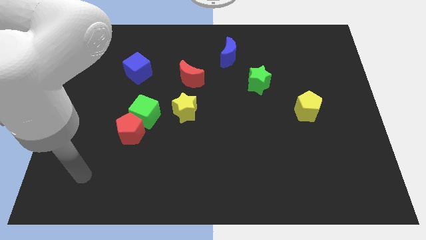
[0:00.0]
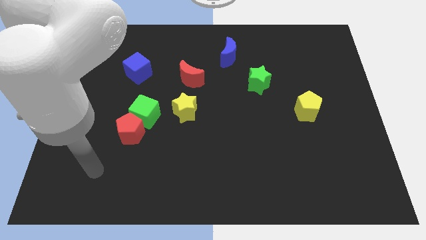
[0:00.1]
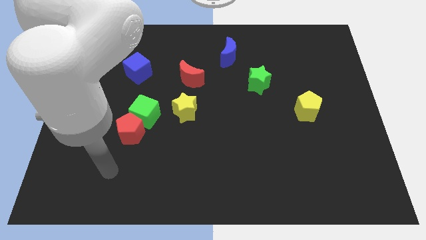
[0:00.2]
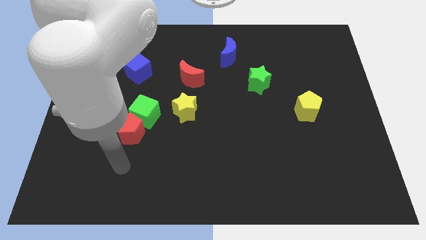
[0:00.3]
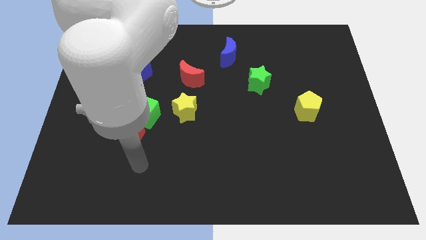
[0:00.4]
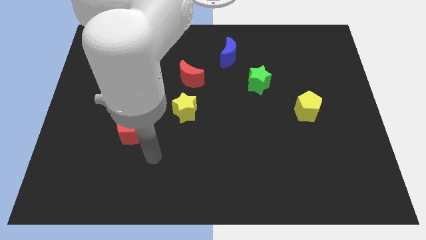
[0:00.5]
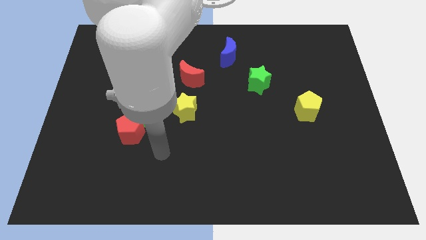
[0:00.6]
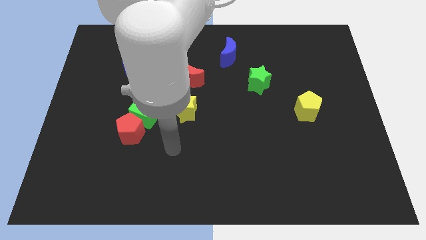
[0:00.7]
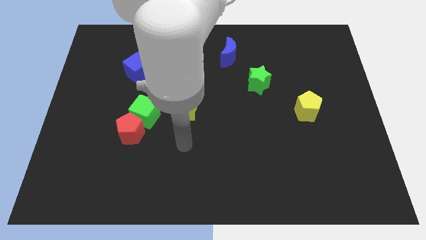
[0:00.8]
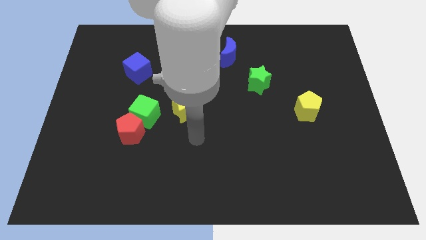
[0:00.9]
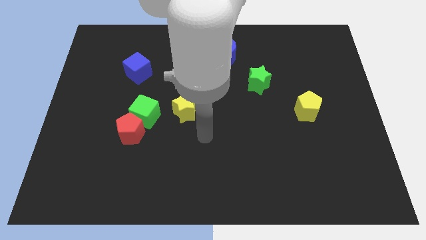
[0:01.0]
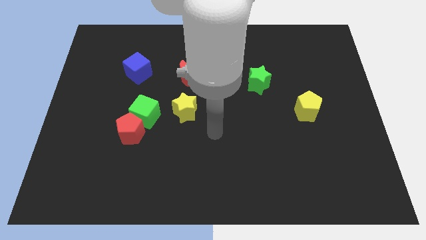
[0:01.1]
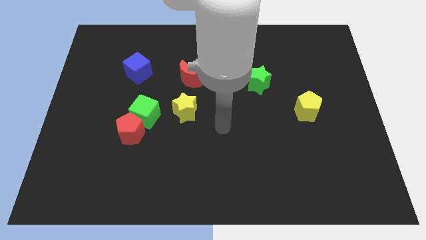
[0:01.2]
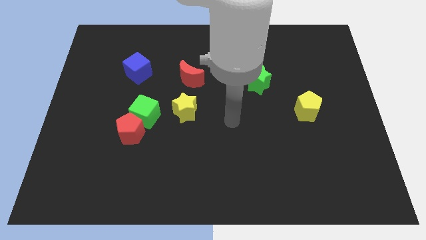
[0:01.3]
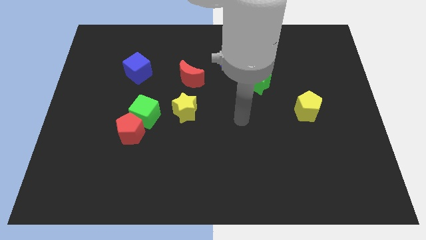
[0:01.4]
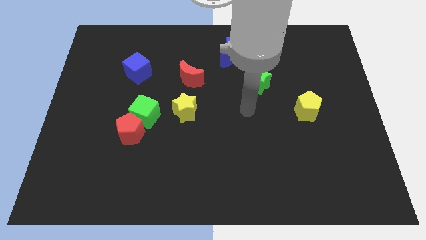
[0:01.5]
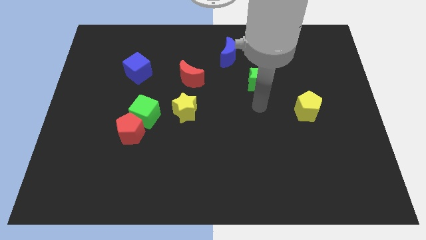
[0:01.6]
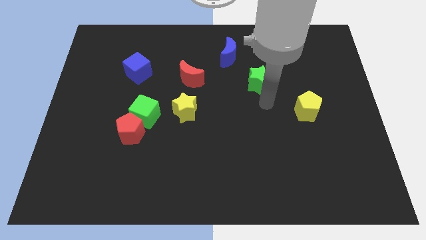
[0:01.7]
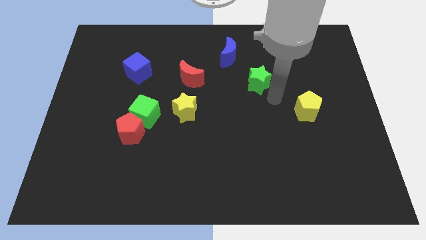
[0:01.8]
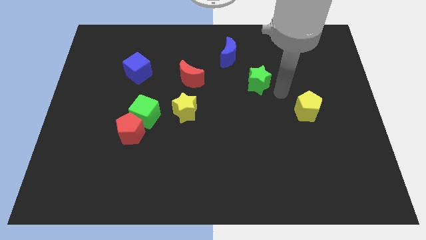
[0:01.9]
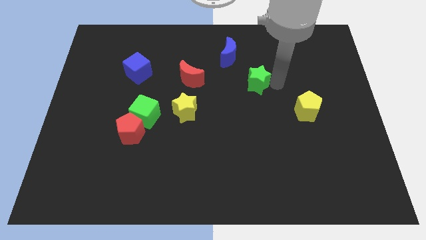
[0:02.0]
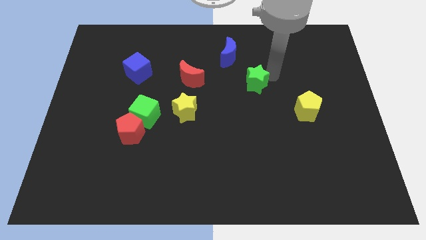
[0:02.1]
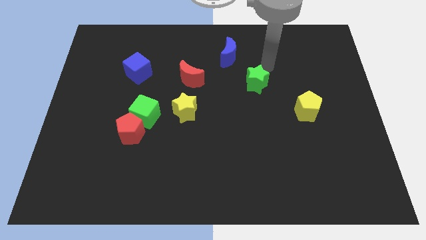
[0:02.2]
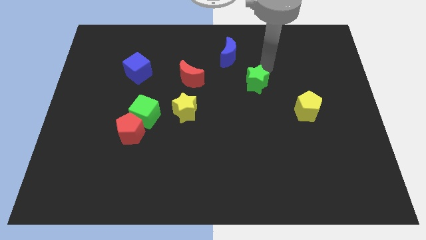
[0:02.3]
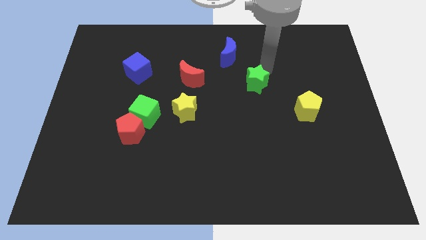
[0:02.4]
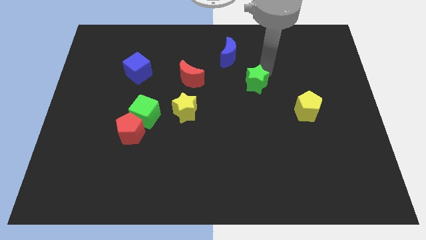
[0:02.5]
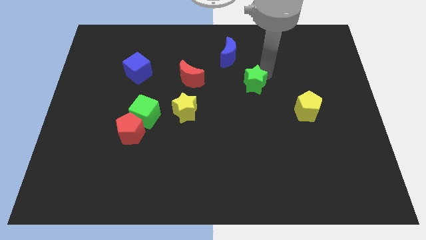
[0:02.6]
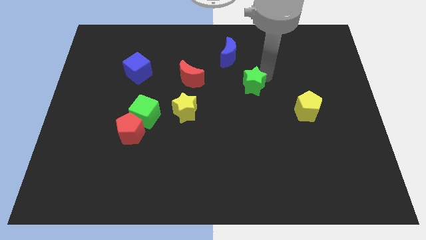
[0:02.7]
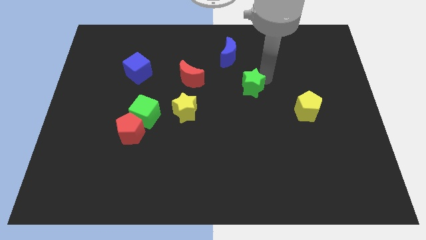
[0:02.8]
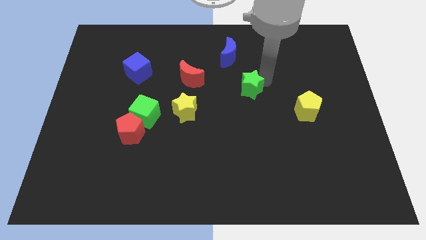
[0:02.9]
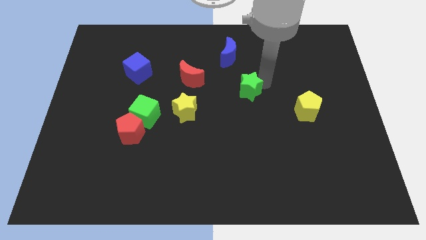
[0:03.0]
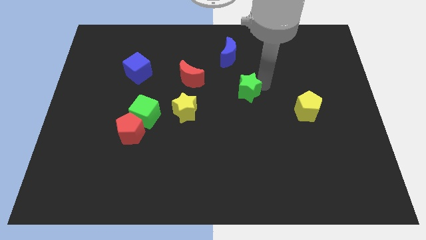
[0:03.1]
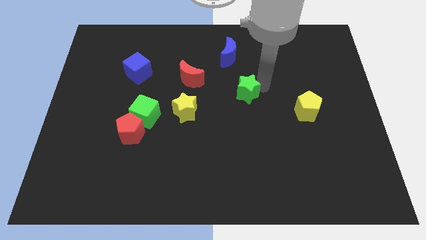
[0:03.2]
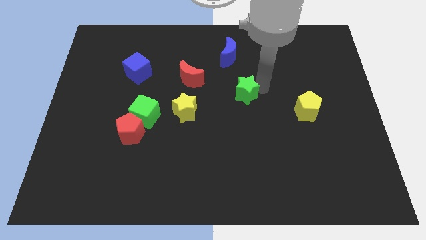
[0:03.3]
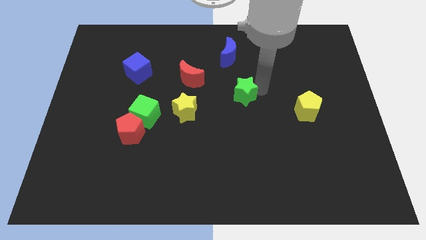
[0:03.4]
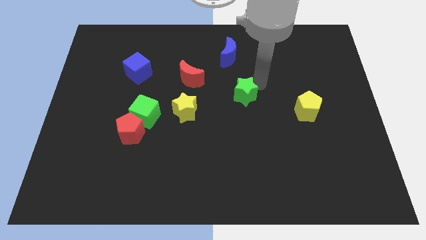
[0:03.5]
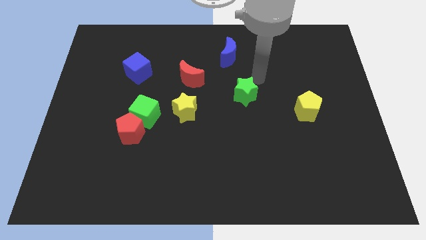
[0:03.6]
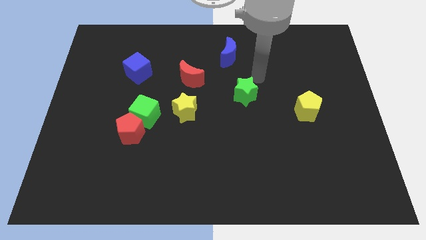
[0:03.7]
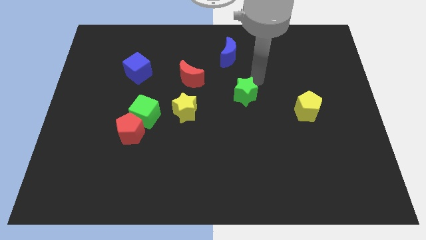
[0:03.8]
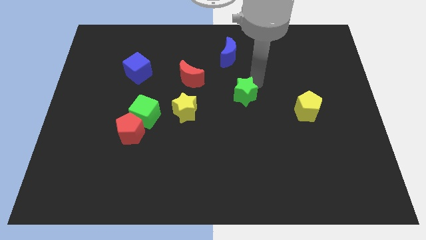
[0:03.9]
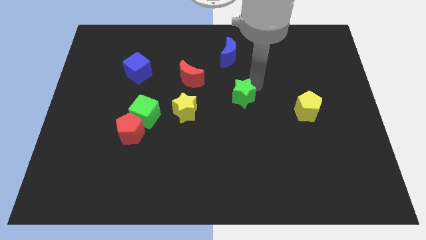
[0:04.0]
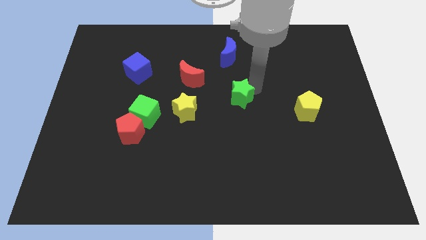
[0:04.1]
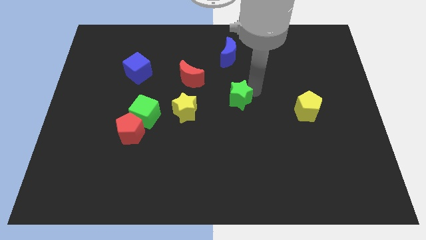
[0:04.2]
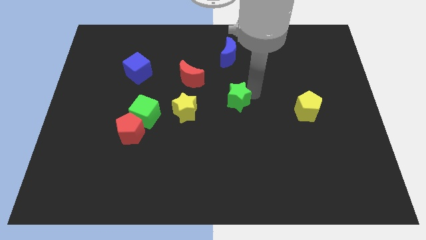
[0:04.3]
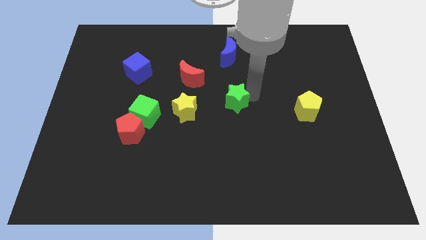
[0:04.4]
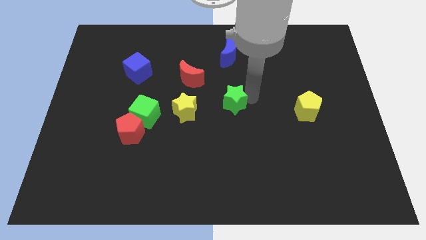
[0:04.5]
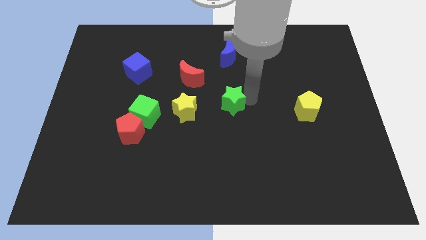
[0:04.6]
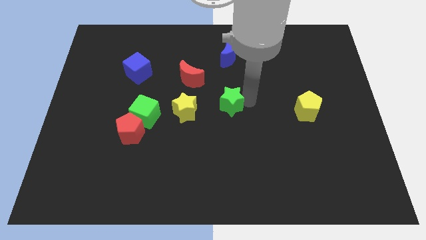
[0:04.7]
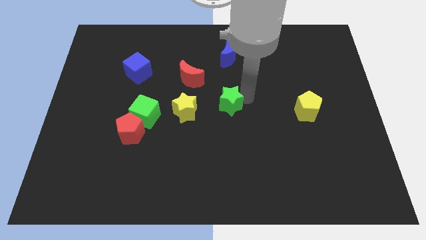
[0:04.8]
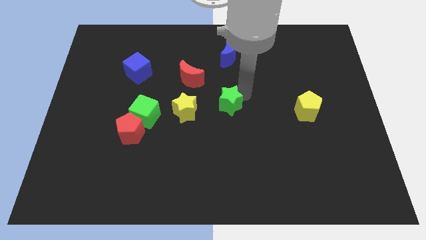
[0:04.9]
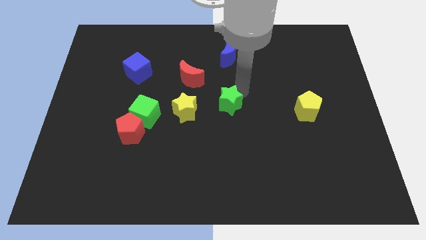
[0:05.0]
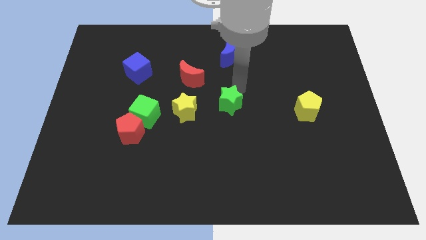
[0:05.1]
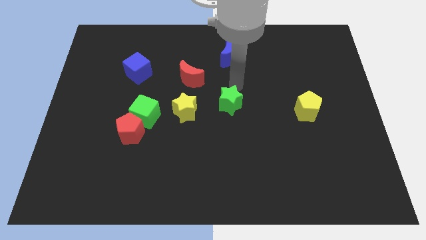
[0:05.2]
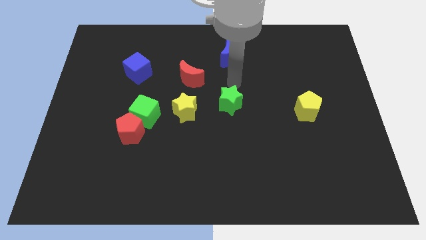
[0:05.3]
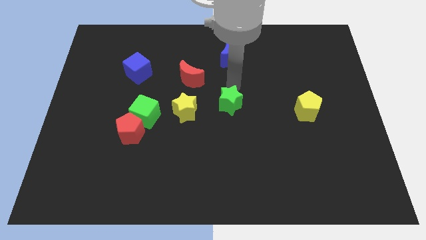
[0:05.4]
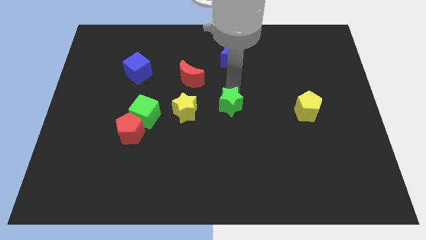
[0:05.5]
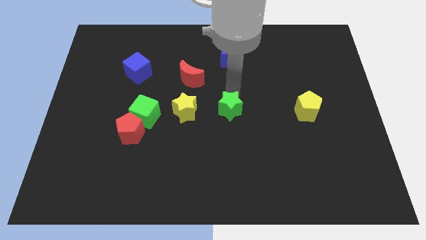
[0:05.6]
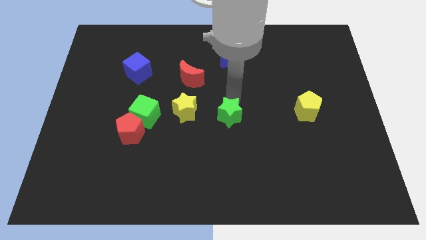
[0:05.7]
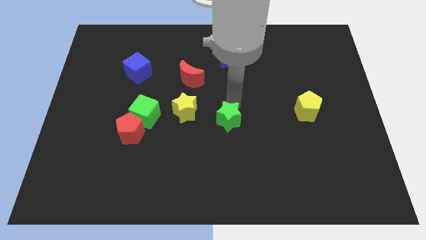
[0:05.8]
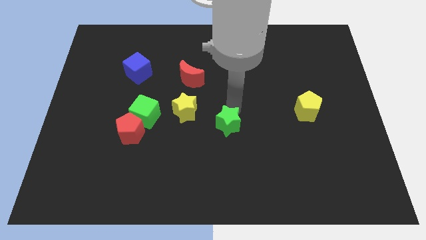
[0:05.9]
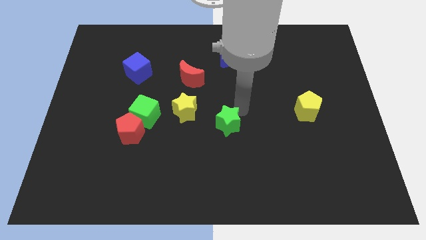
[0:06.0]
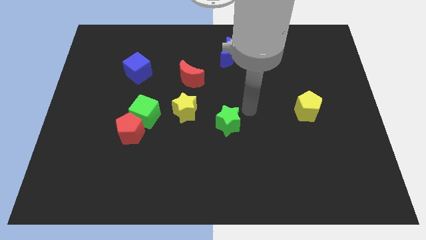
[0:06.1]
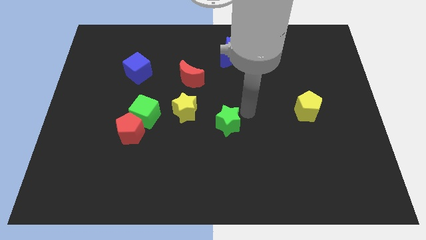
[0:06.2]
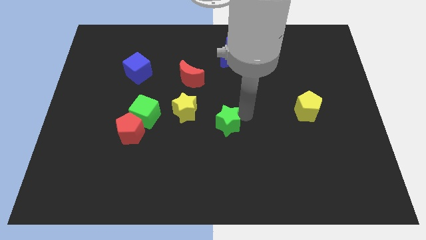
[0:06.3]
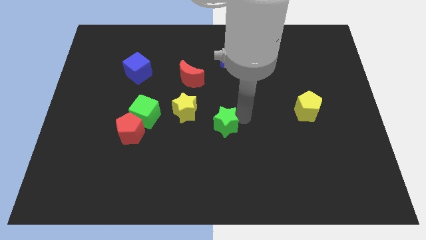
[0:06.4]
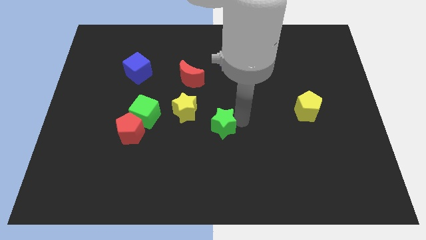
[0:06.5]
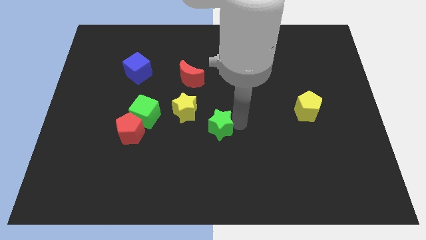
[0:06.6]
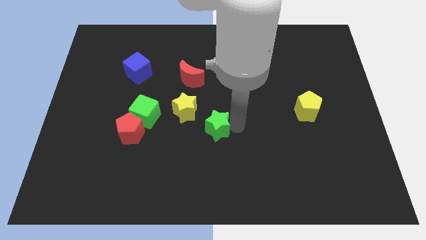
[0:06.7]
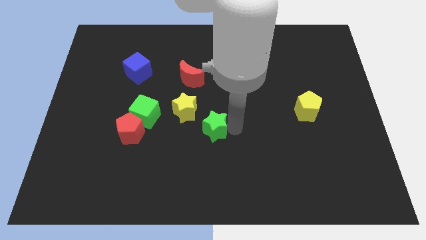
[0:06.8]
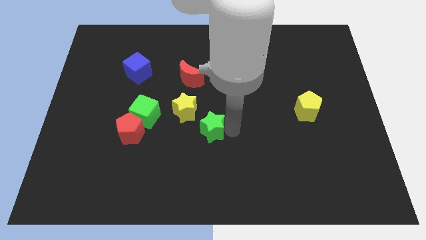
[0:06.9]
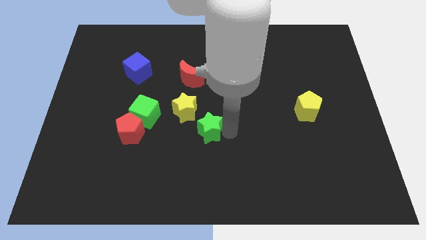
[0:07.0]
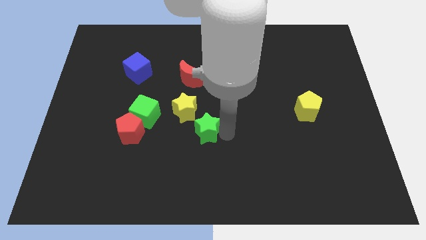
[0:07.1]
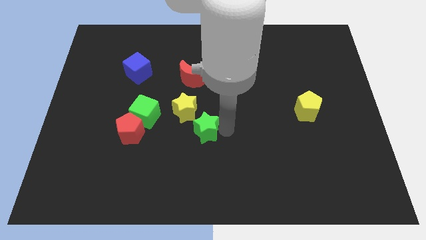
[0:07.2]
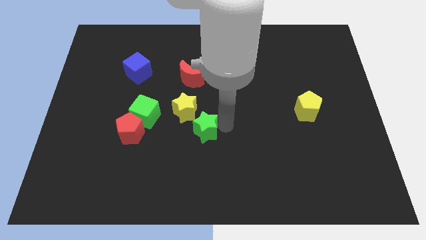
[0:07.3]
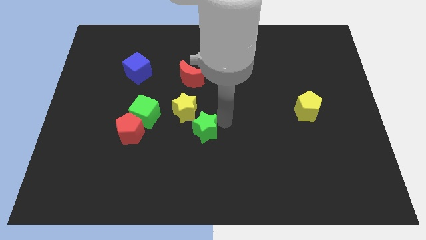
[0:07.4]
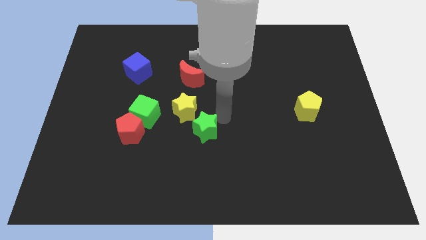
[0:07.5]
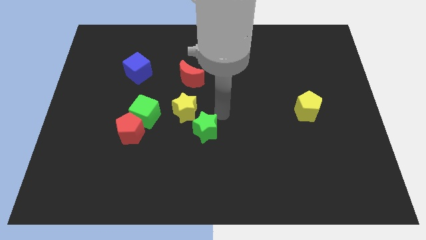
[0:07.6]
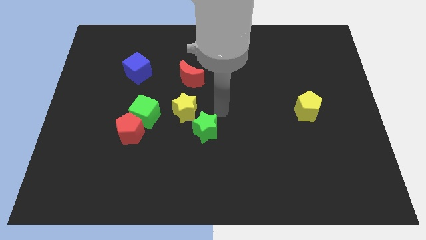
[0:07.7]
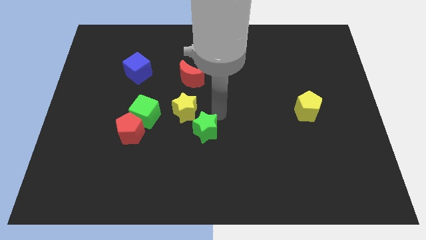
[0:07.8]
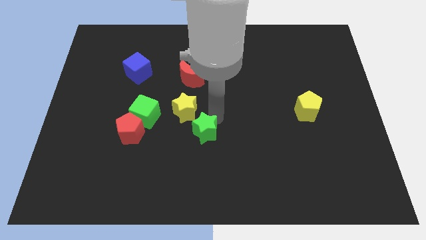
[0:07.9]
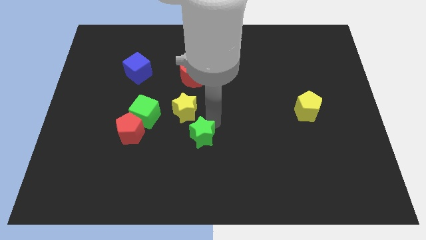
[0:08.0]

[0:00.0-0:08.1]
move the green star down and left

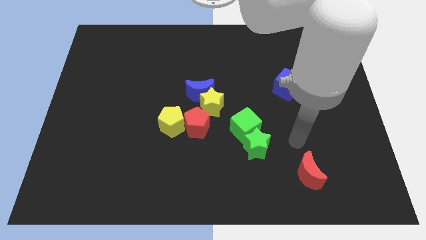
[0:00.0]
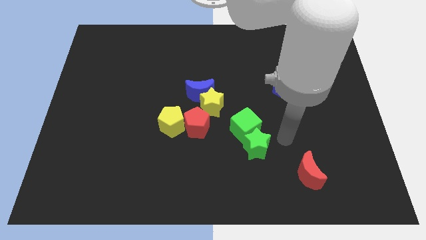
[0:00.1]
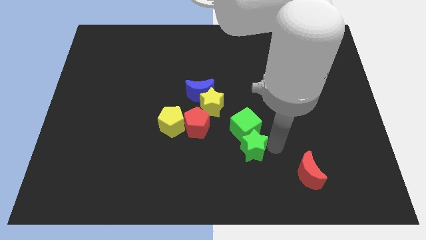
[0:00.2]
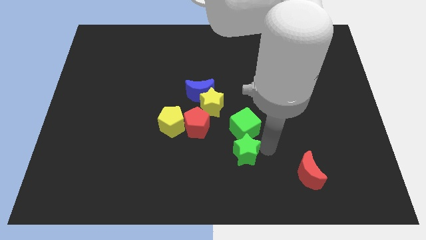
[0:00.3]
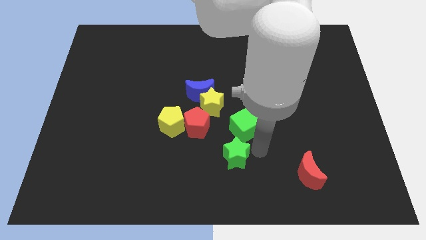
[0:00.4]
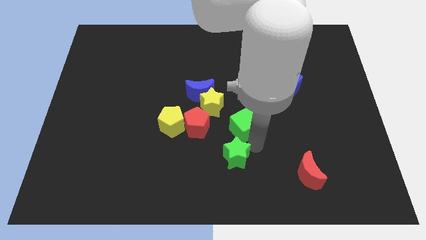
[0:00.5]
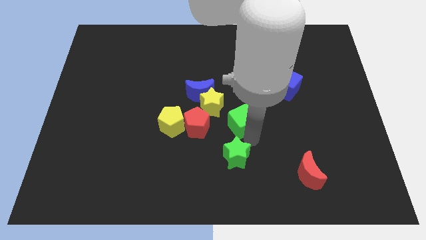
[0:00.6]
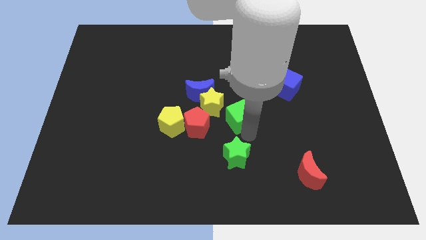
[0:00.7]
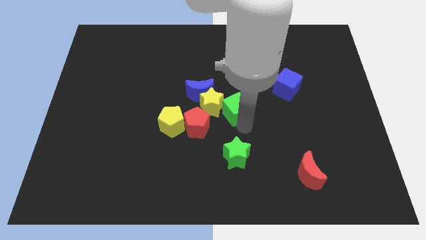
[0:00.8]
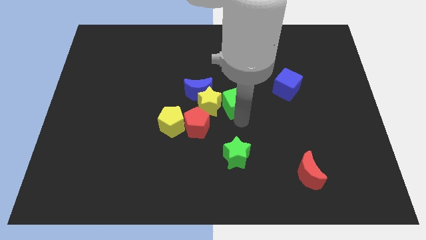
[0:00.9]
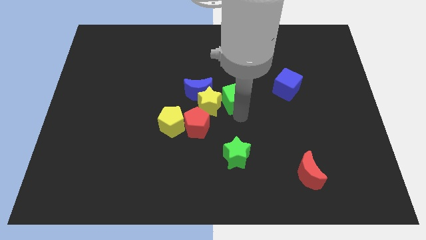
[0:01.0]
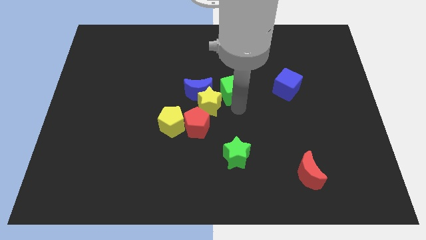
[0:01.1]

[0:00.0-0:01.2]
move the green cube slightly upwards and to the left diagonally
